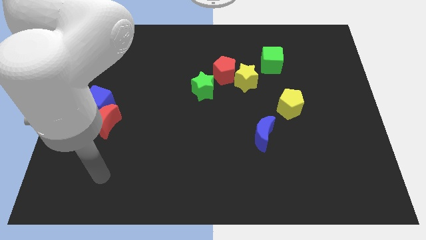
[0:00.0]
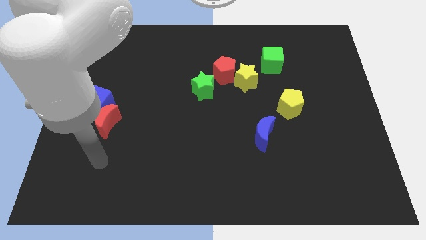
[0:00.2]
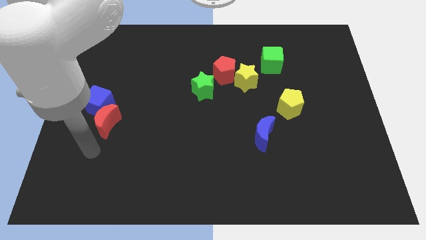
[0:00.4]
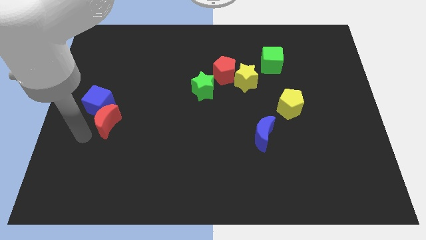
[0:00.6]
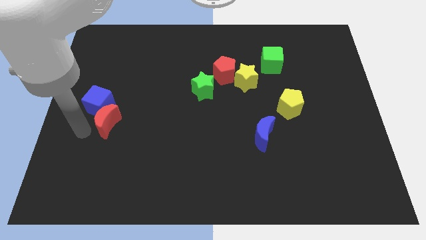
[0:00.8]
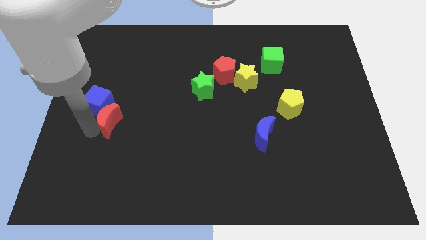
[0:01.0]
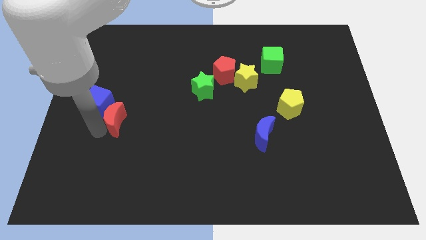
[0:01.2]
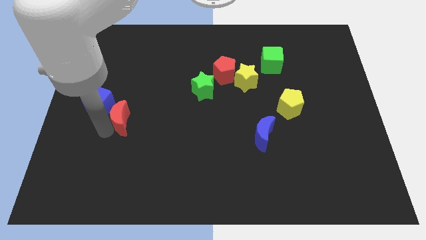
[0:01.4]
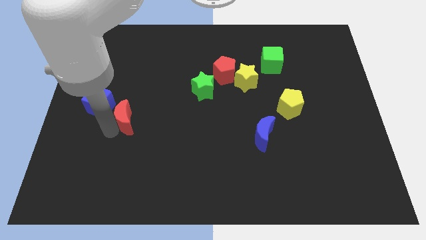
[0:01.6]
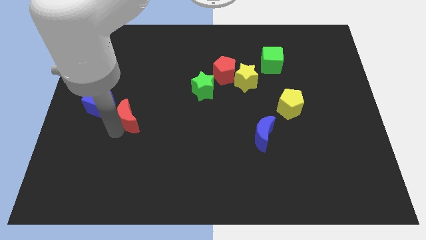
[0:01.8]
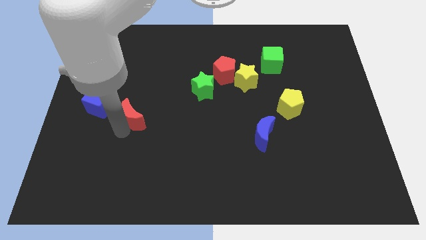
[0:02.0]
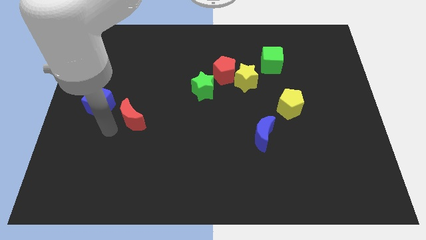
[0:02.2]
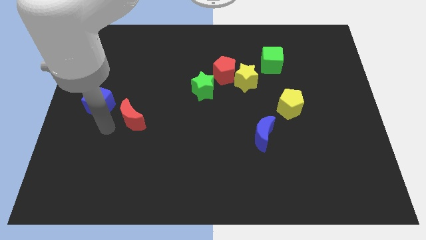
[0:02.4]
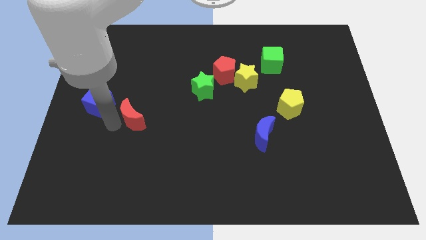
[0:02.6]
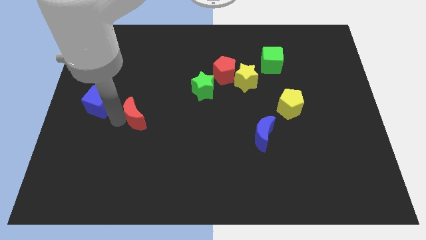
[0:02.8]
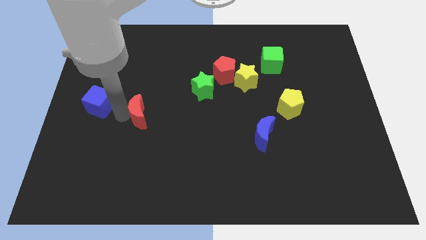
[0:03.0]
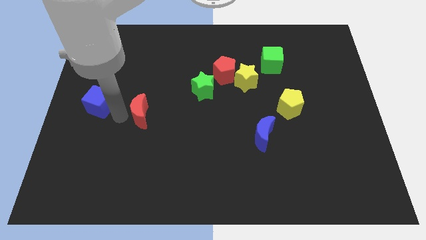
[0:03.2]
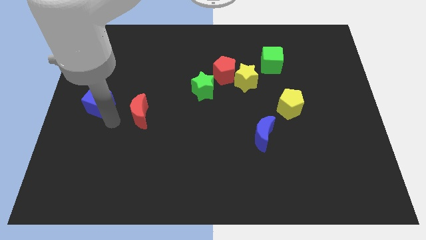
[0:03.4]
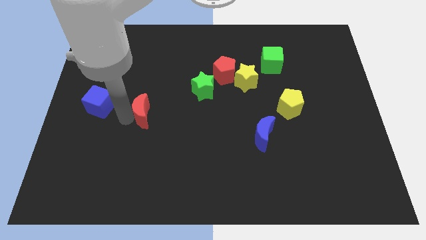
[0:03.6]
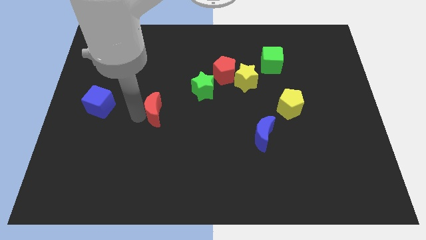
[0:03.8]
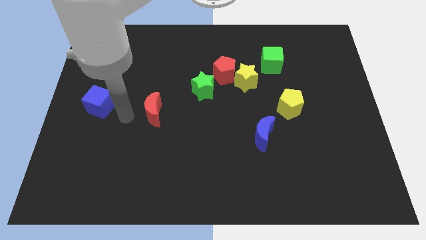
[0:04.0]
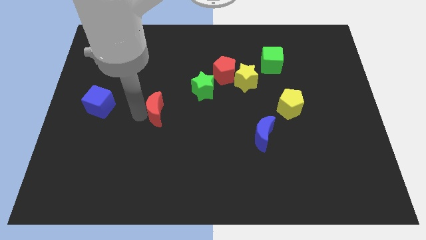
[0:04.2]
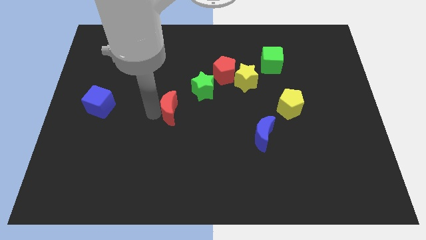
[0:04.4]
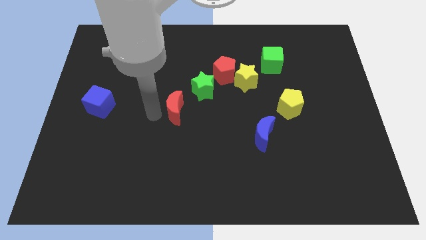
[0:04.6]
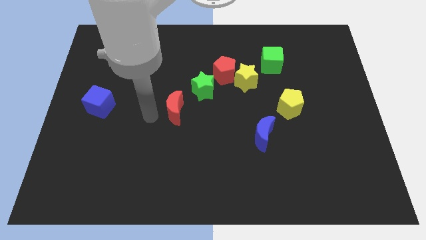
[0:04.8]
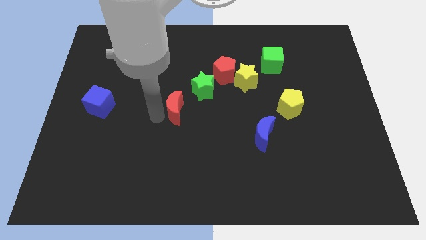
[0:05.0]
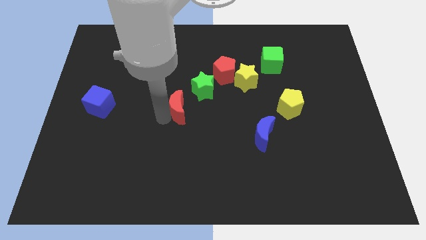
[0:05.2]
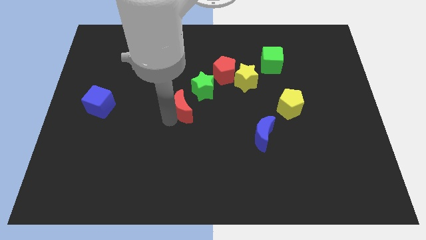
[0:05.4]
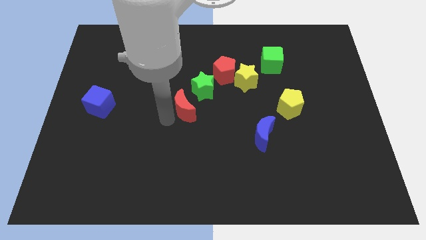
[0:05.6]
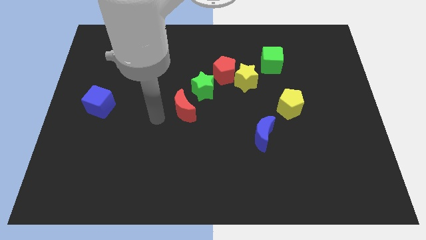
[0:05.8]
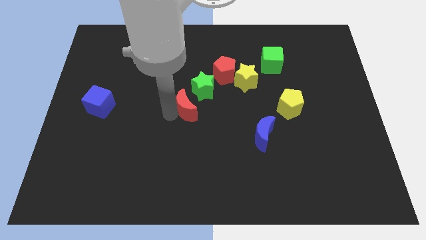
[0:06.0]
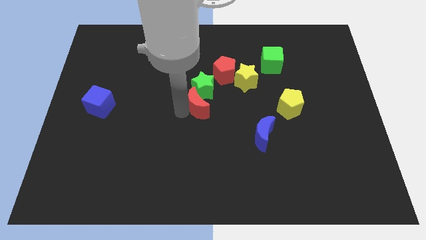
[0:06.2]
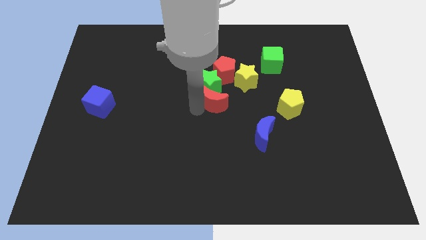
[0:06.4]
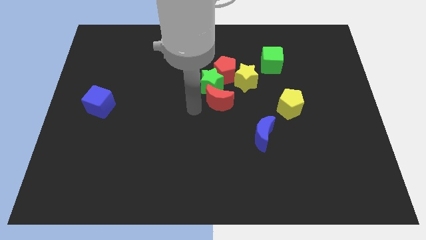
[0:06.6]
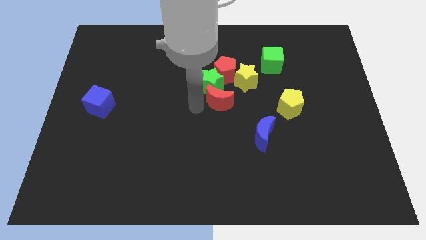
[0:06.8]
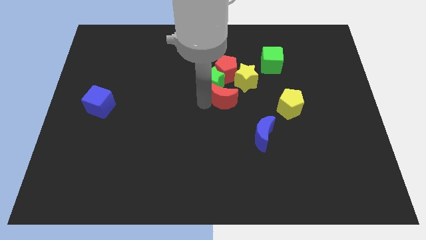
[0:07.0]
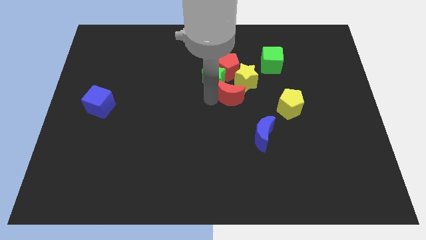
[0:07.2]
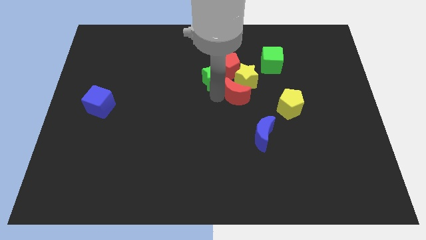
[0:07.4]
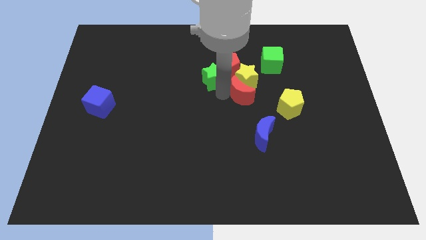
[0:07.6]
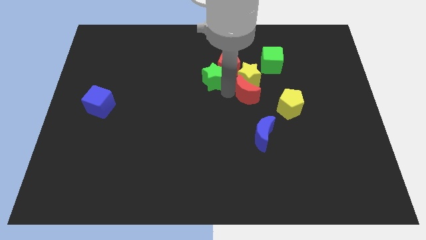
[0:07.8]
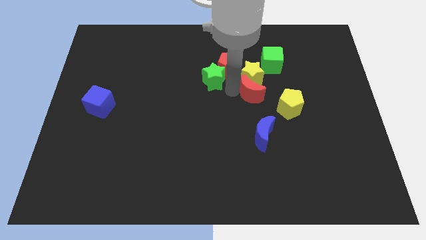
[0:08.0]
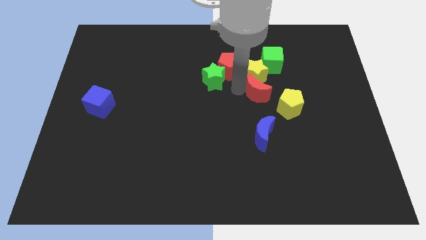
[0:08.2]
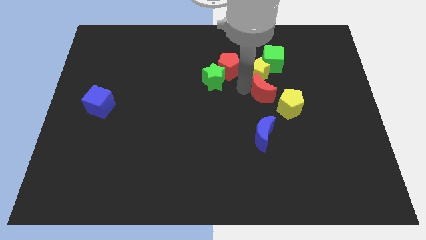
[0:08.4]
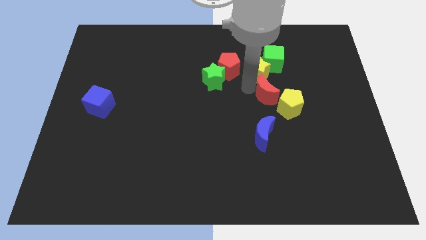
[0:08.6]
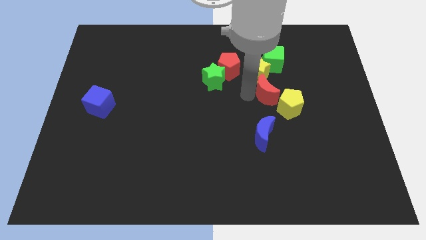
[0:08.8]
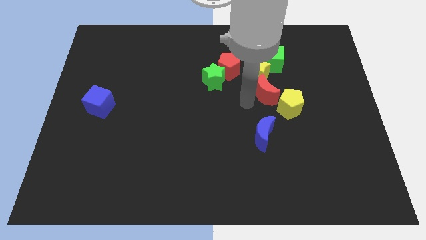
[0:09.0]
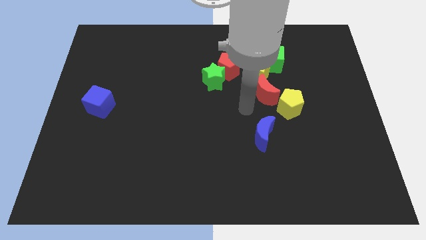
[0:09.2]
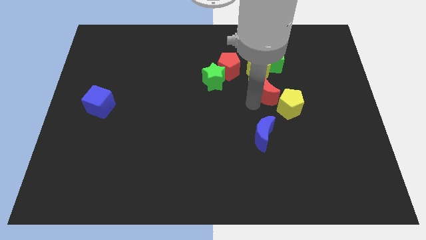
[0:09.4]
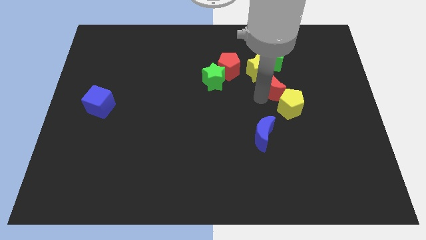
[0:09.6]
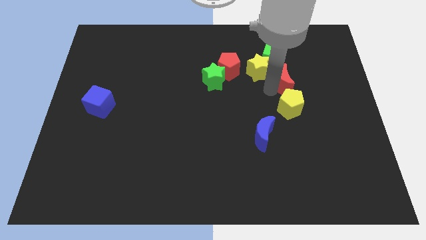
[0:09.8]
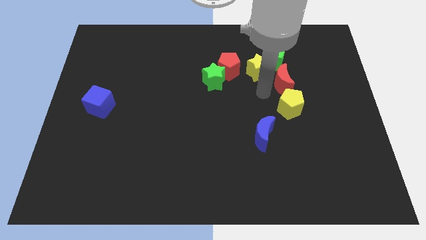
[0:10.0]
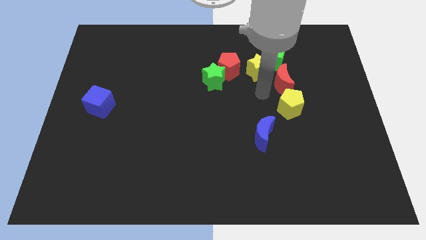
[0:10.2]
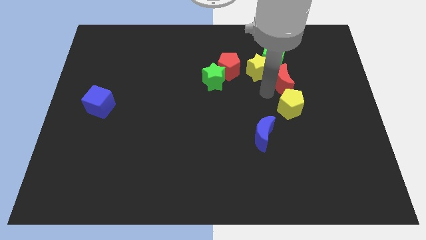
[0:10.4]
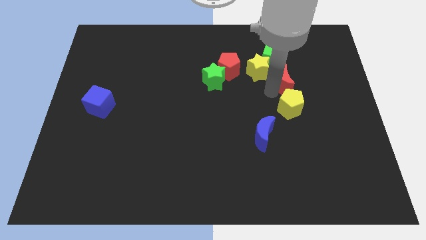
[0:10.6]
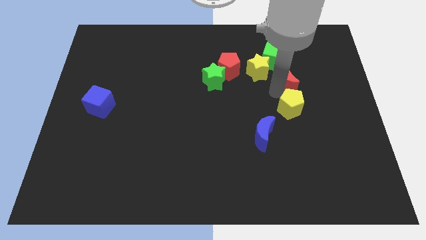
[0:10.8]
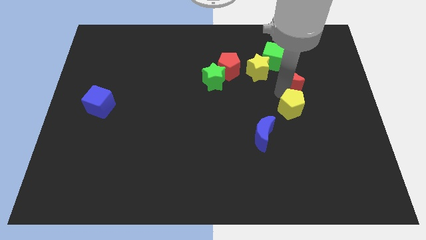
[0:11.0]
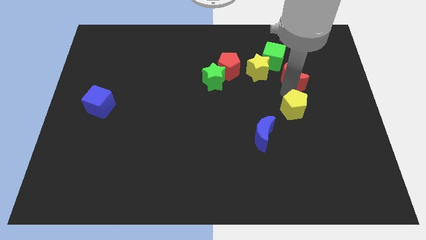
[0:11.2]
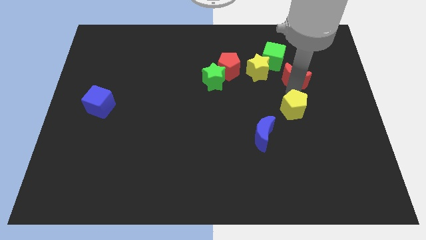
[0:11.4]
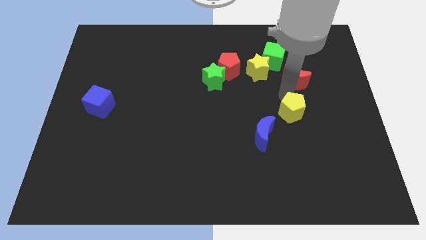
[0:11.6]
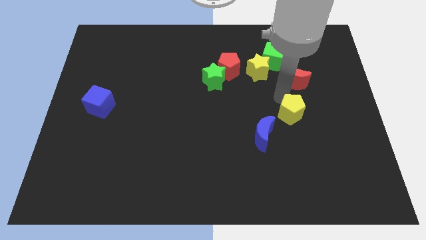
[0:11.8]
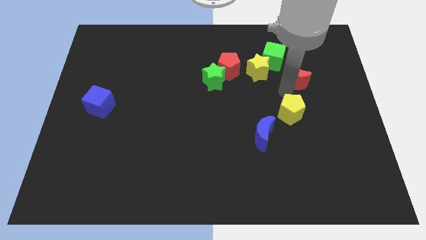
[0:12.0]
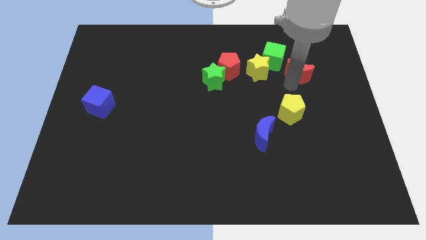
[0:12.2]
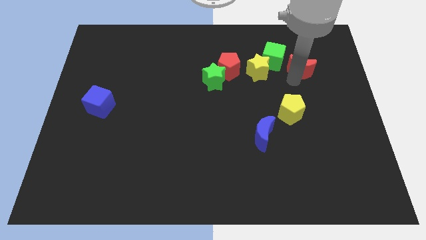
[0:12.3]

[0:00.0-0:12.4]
slide the red moon to the right of the green cube

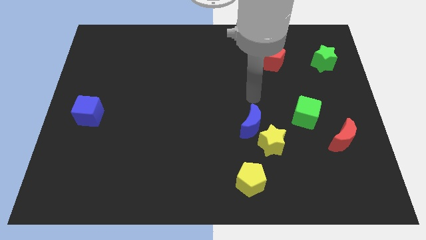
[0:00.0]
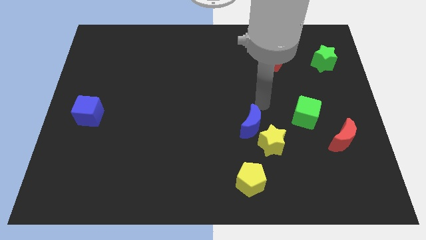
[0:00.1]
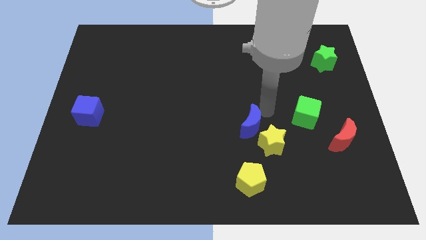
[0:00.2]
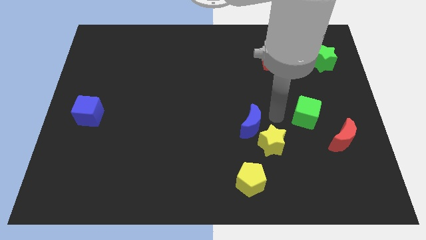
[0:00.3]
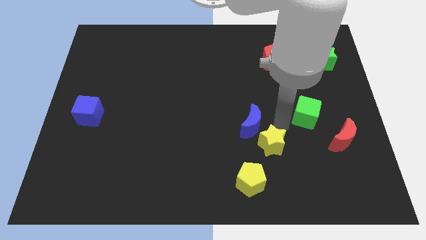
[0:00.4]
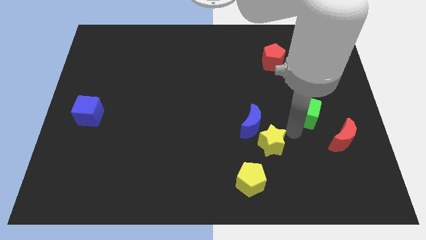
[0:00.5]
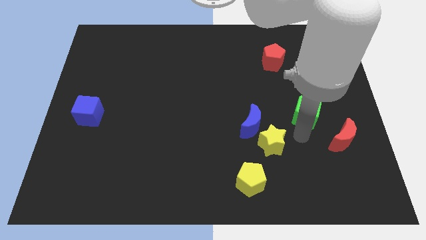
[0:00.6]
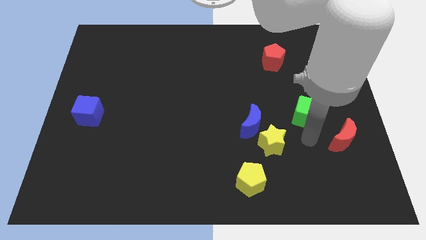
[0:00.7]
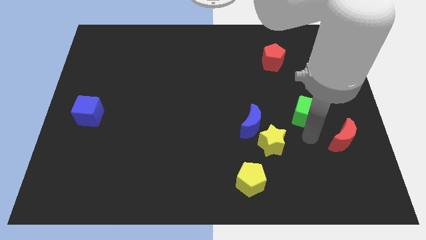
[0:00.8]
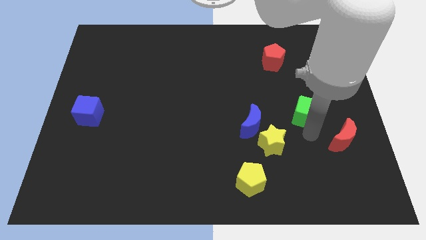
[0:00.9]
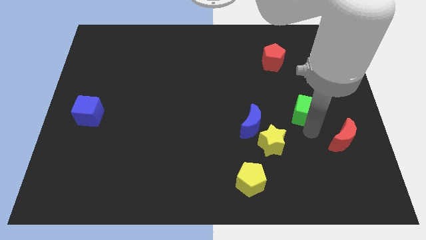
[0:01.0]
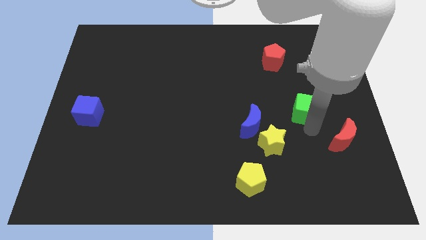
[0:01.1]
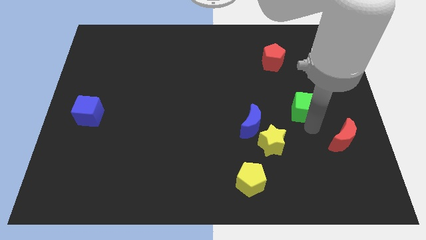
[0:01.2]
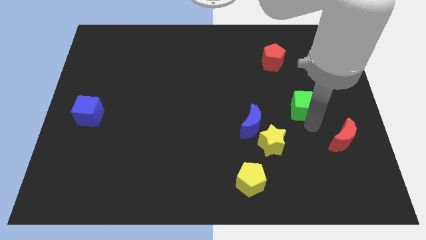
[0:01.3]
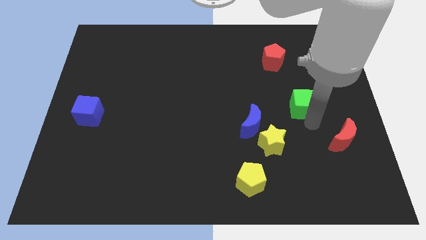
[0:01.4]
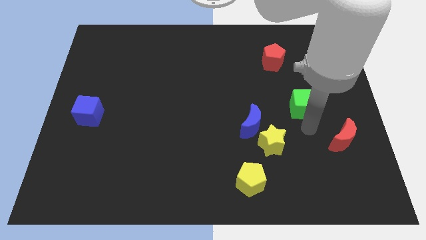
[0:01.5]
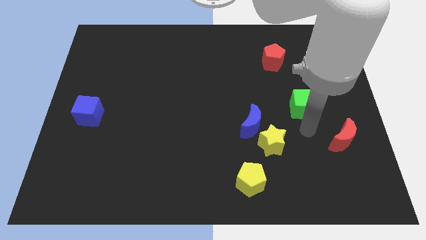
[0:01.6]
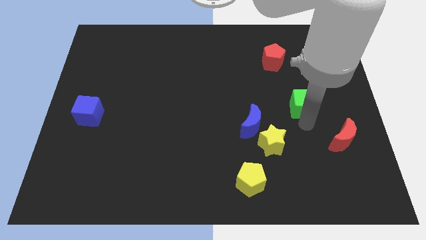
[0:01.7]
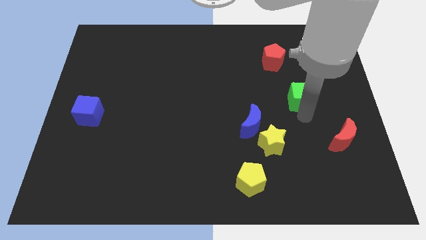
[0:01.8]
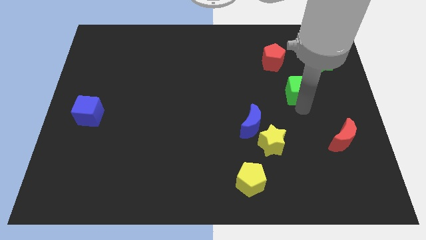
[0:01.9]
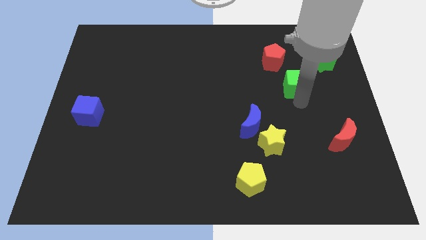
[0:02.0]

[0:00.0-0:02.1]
move the green cube to the bottom right side of the red pentagon
